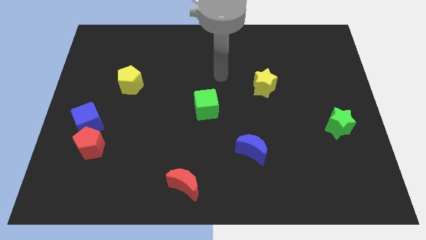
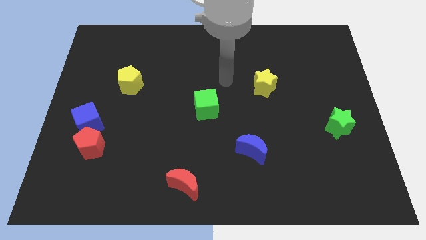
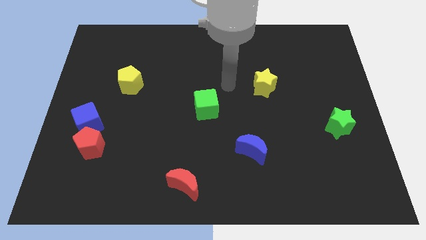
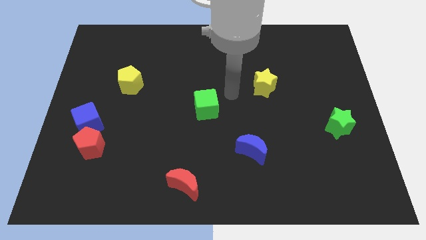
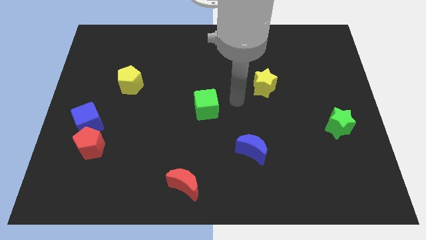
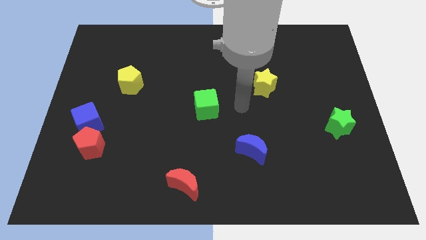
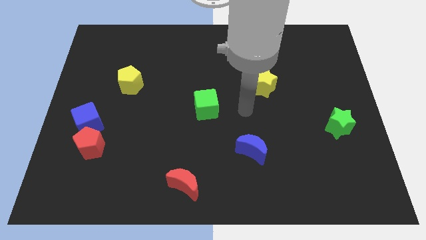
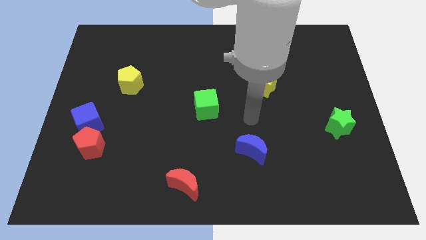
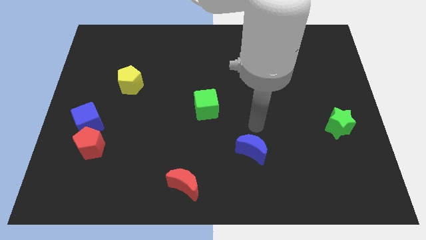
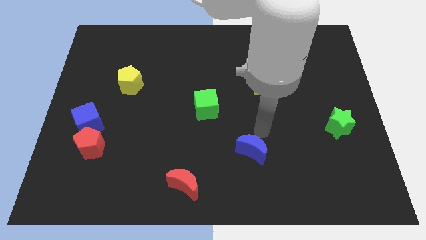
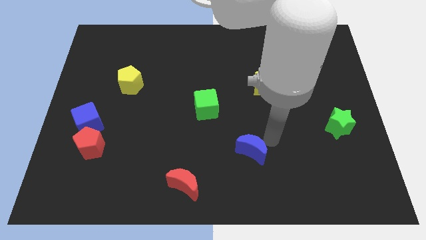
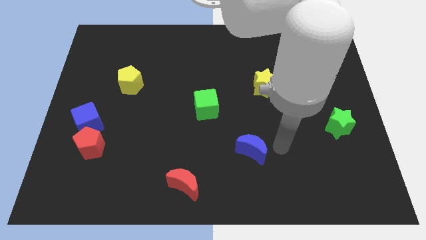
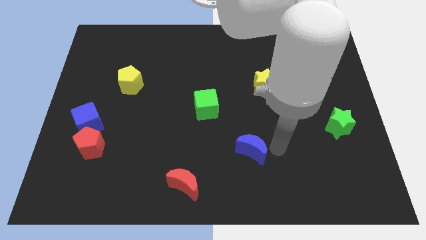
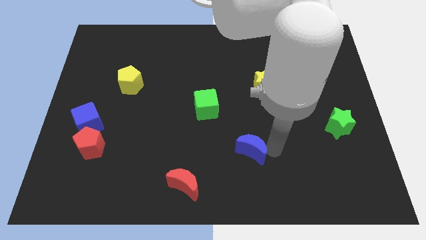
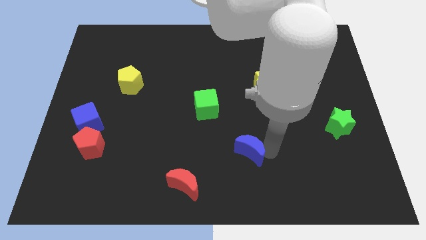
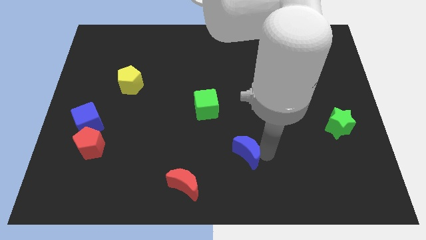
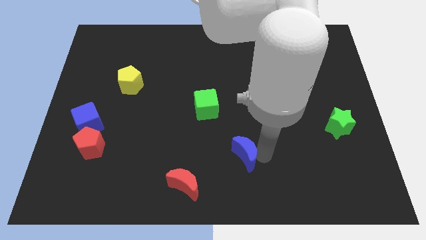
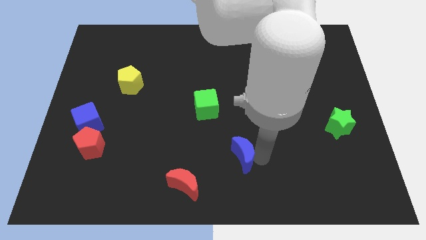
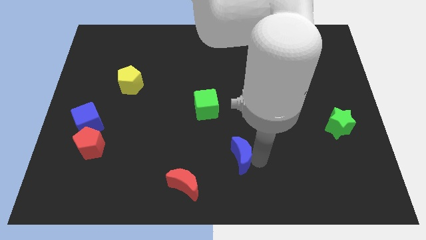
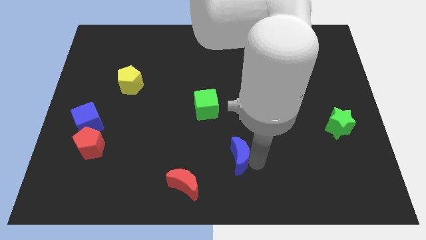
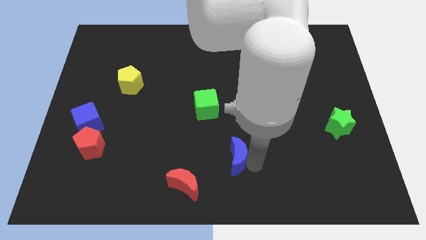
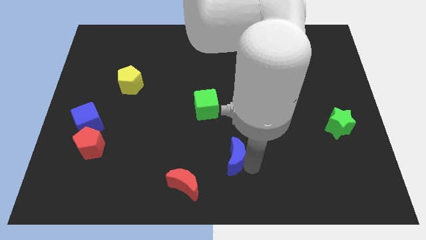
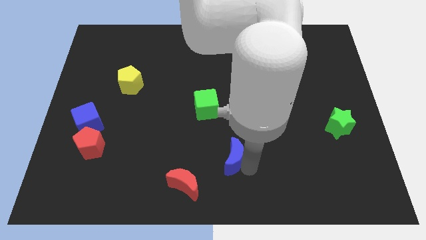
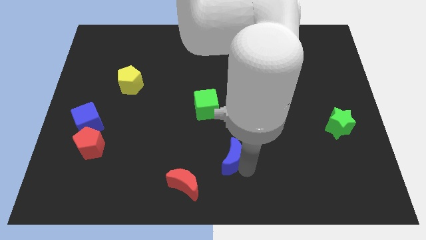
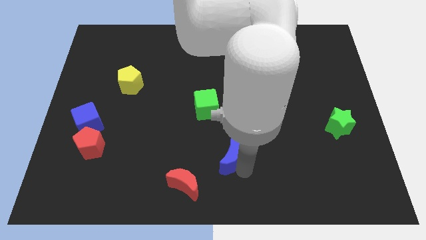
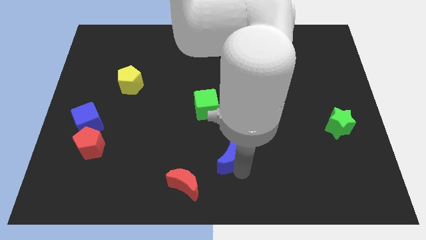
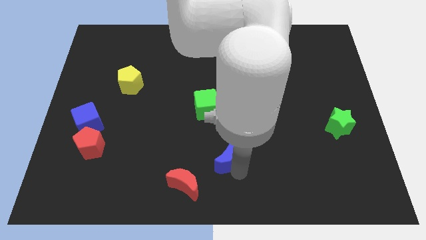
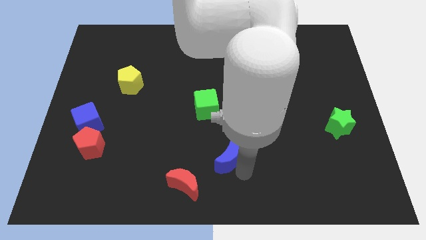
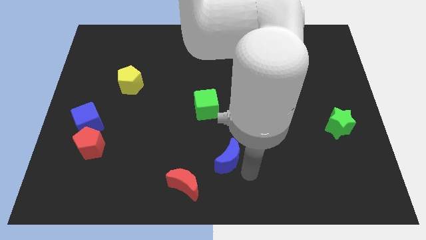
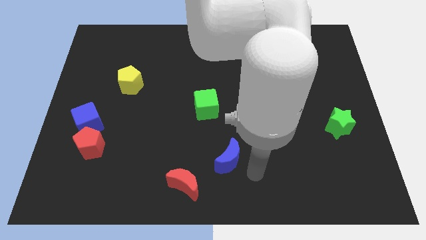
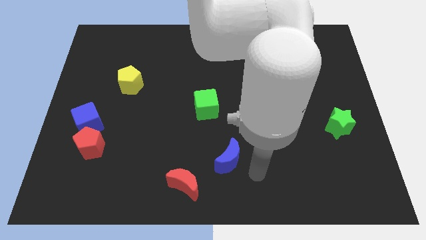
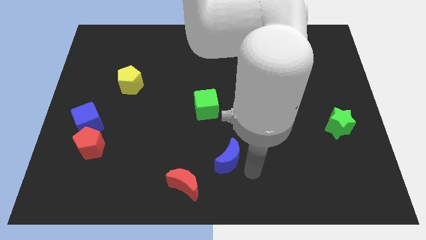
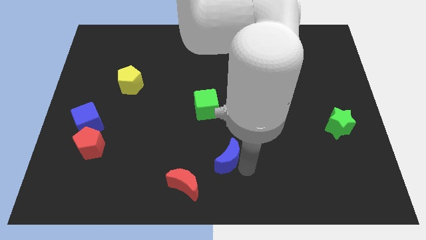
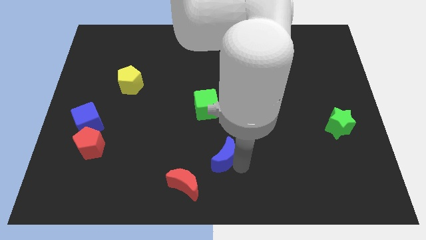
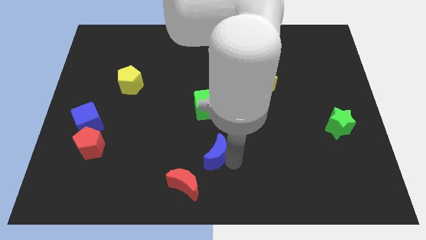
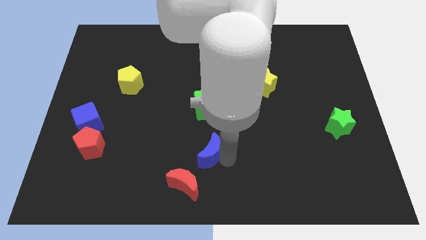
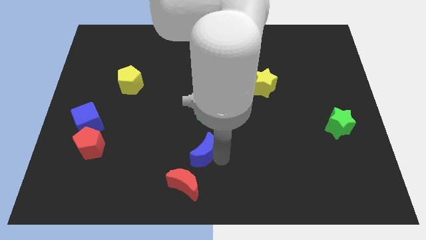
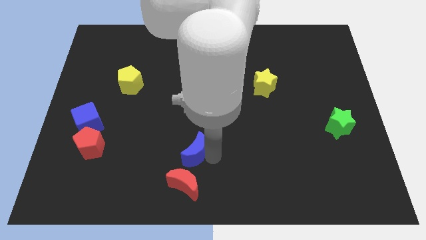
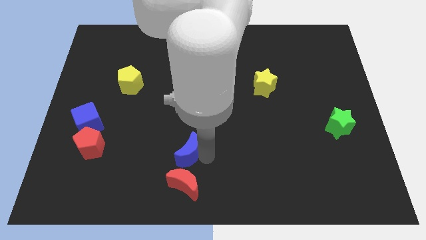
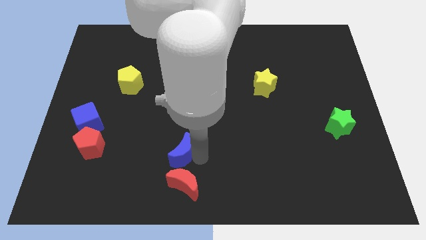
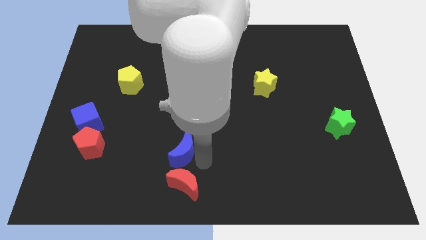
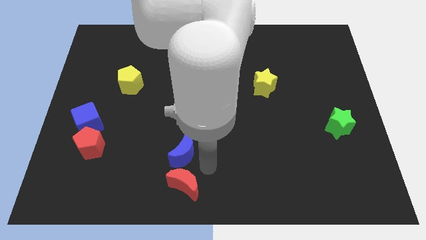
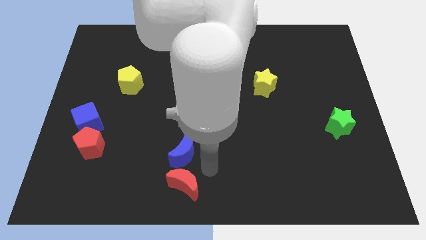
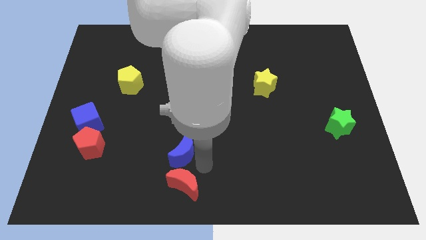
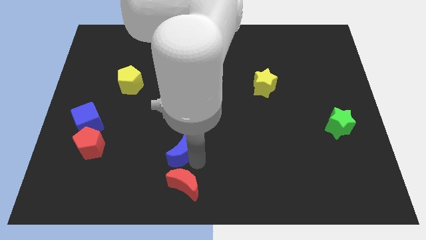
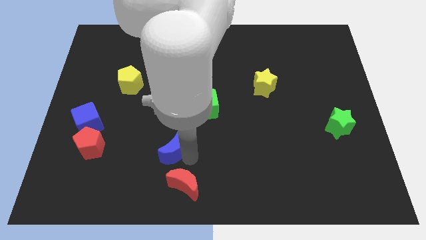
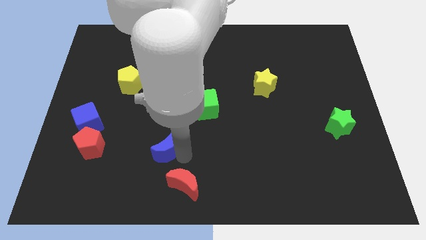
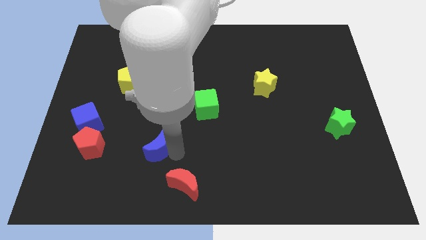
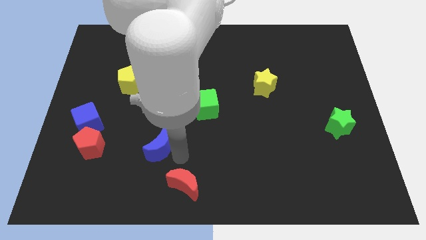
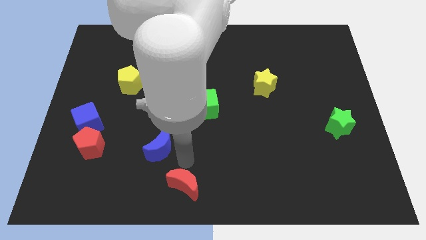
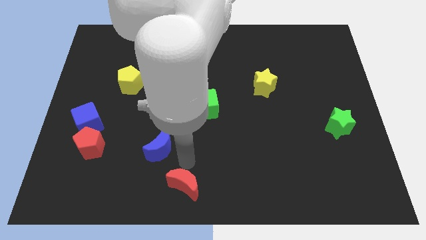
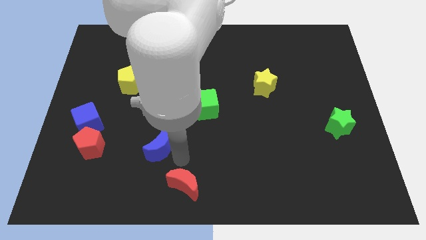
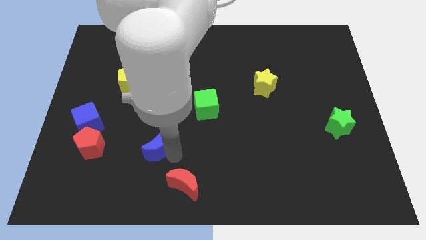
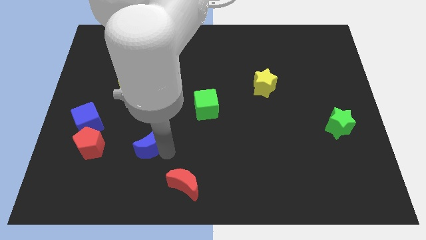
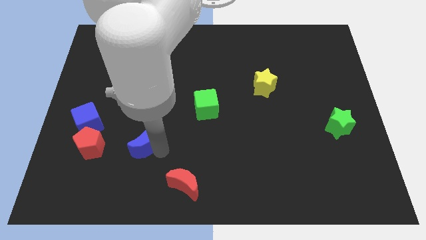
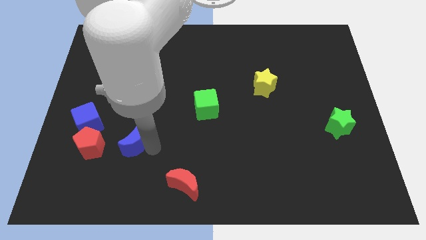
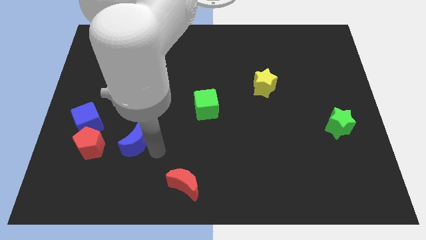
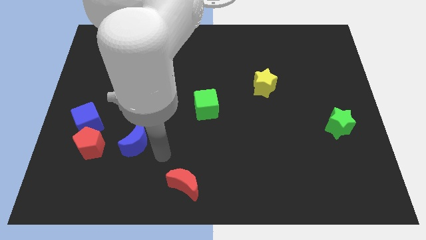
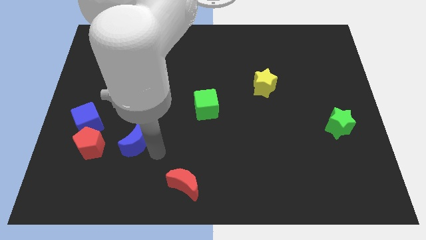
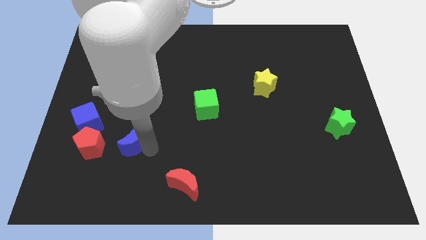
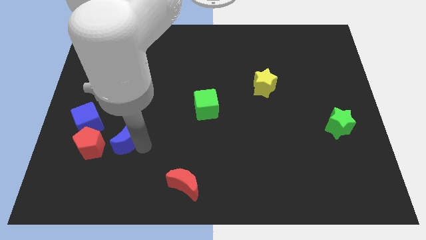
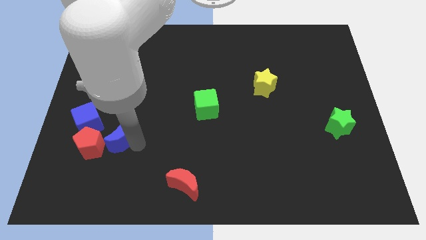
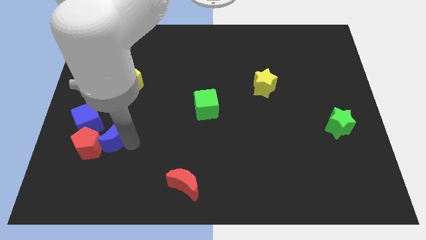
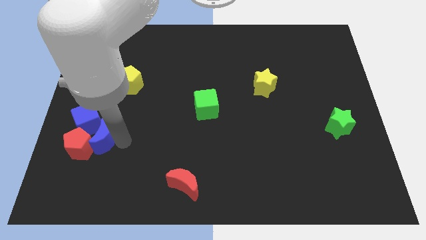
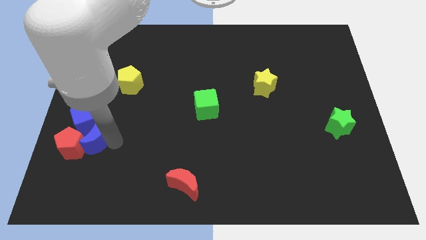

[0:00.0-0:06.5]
push the blue moon close to the blue cube
